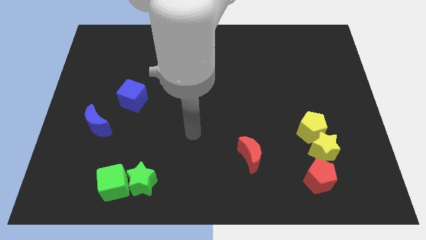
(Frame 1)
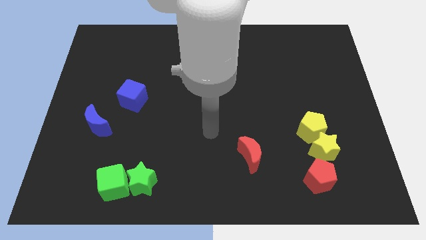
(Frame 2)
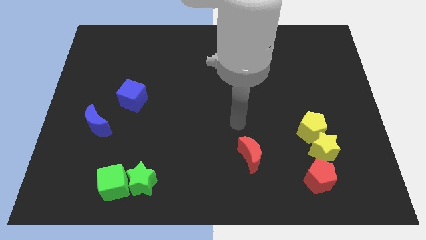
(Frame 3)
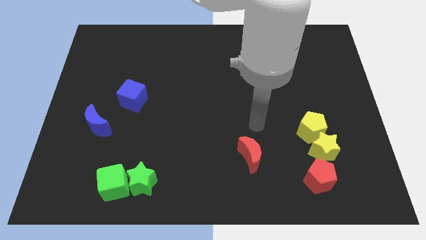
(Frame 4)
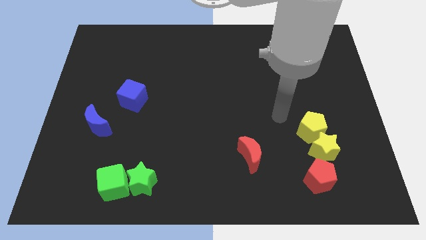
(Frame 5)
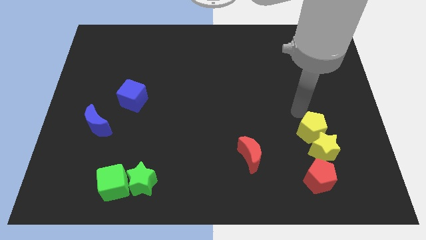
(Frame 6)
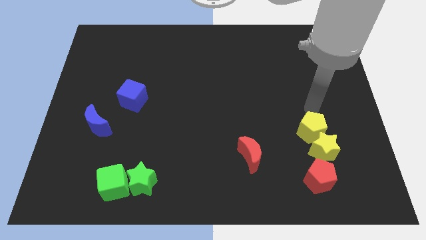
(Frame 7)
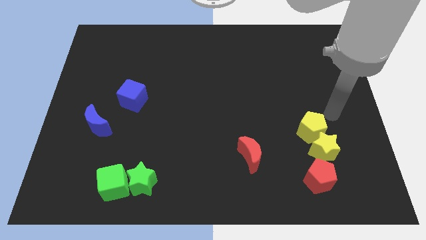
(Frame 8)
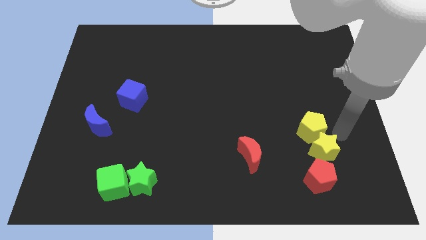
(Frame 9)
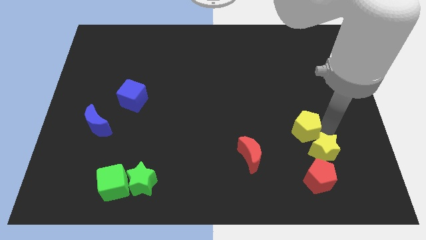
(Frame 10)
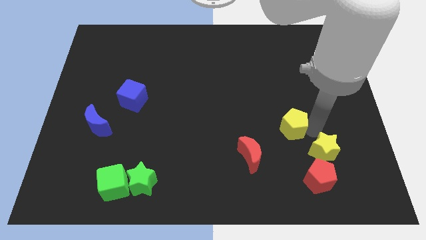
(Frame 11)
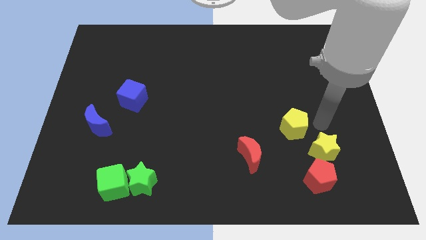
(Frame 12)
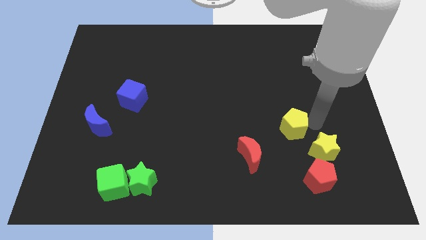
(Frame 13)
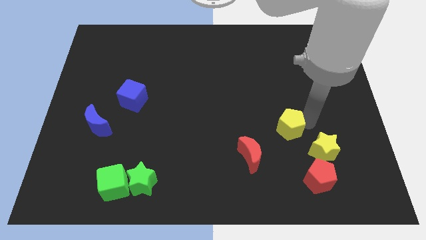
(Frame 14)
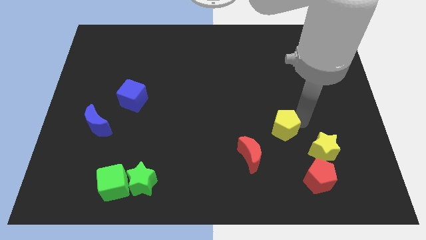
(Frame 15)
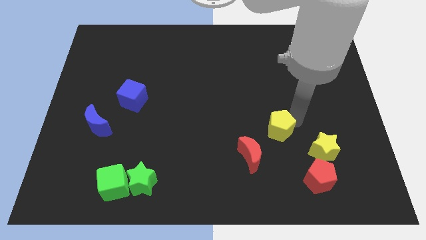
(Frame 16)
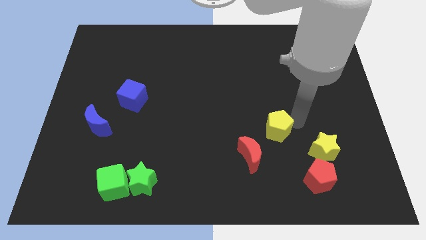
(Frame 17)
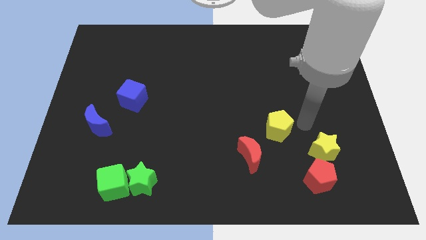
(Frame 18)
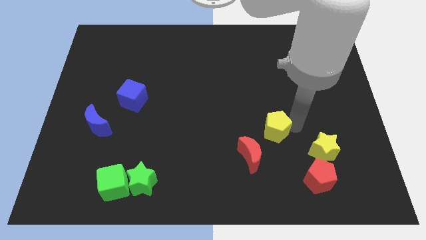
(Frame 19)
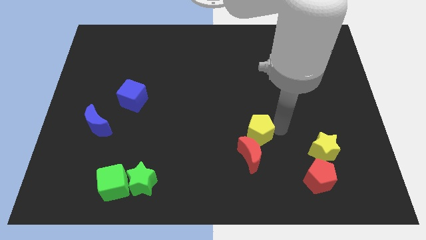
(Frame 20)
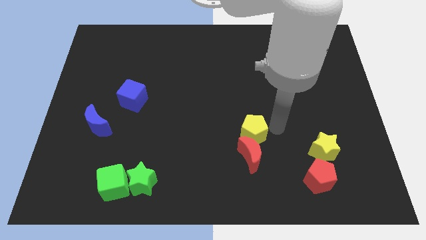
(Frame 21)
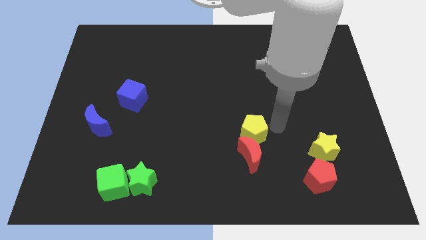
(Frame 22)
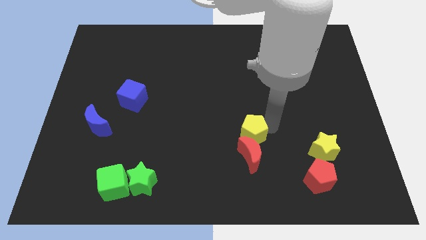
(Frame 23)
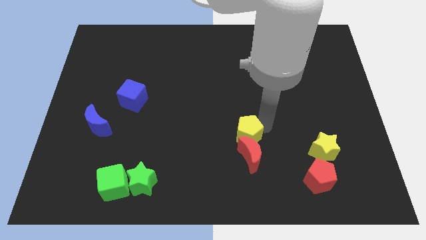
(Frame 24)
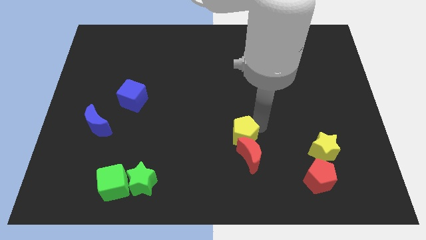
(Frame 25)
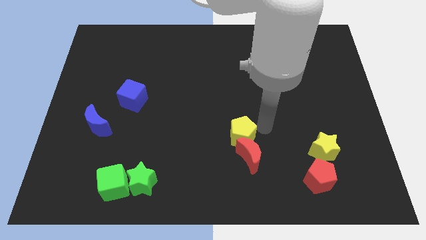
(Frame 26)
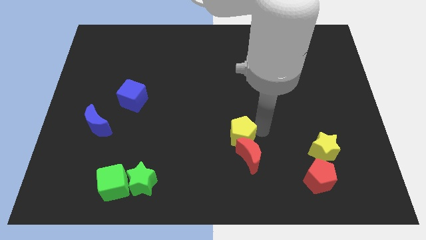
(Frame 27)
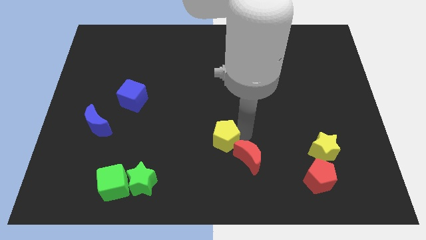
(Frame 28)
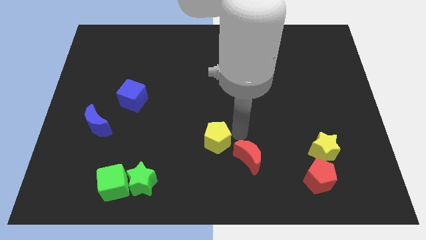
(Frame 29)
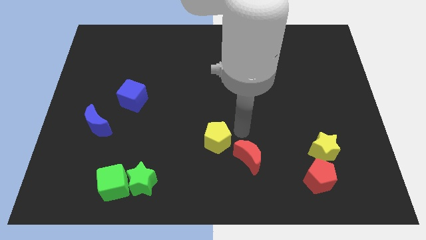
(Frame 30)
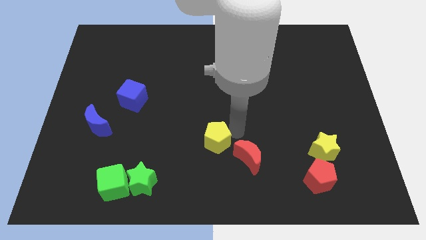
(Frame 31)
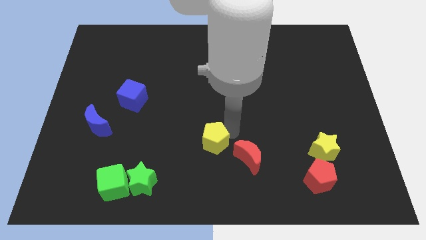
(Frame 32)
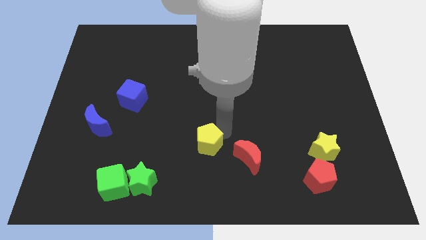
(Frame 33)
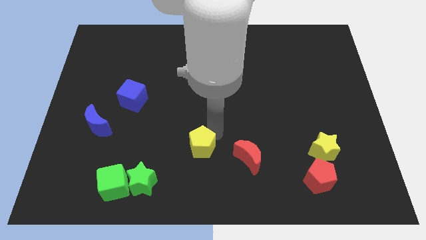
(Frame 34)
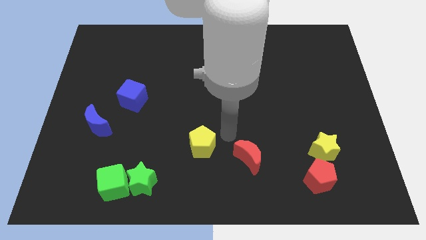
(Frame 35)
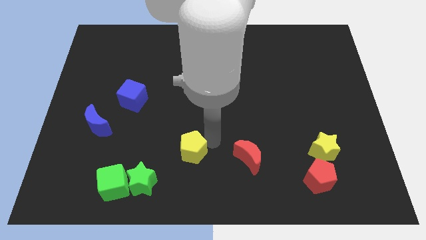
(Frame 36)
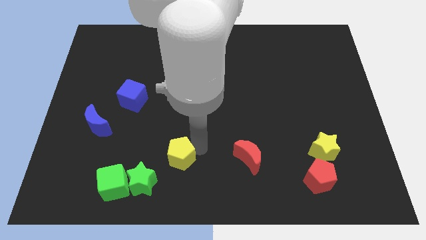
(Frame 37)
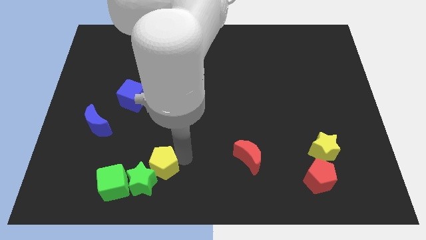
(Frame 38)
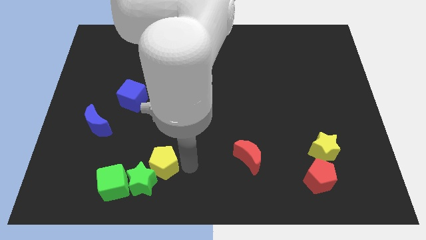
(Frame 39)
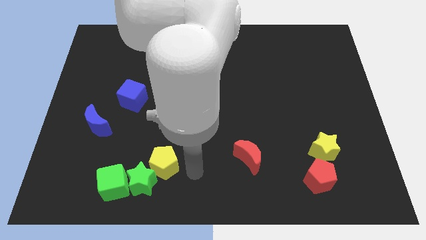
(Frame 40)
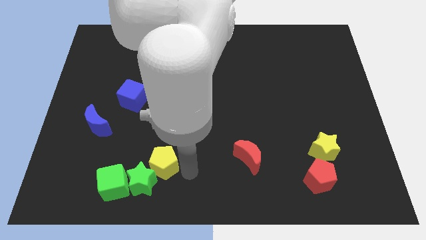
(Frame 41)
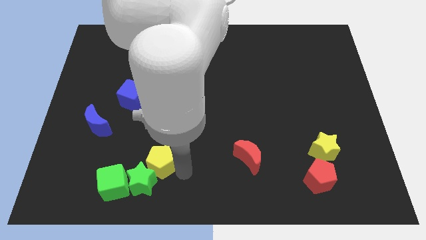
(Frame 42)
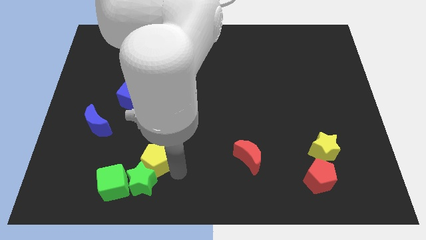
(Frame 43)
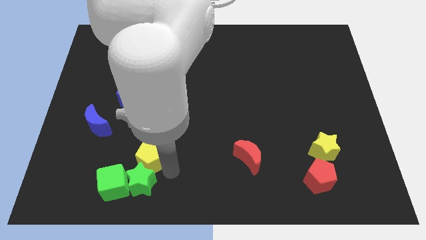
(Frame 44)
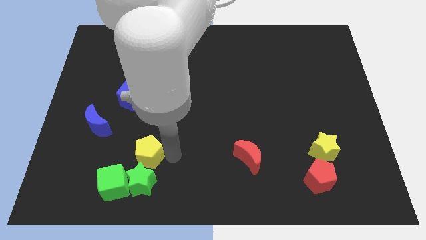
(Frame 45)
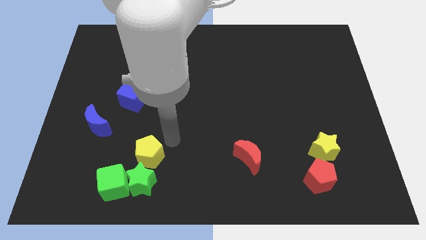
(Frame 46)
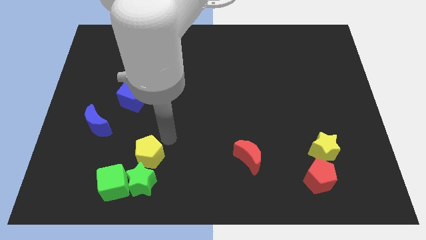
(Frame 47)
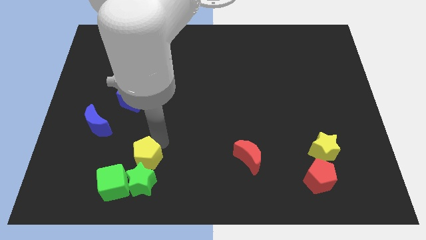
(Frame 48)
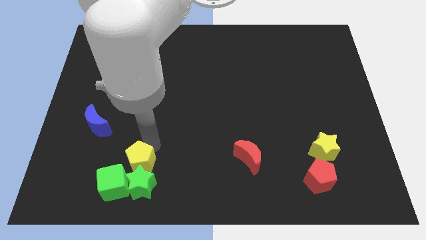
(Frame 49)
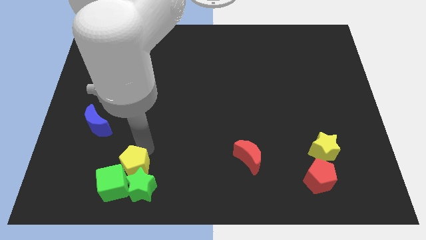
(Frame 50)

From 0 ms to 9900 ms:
put the yellow pentagon next to the green cube

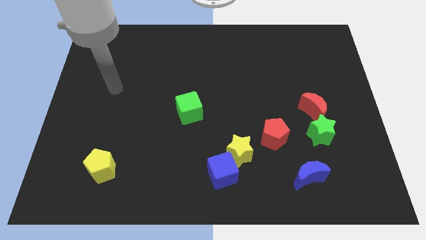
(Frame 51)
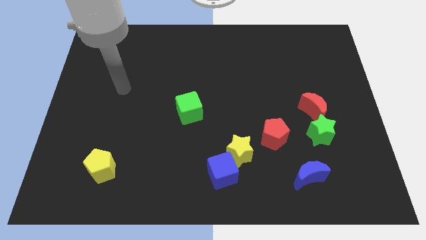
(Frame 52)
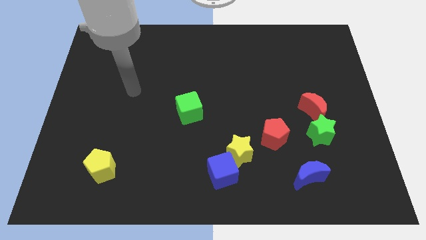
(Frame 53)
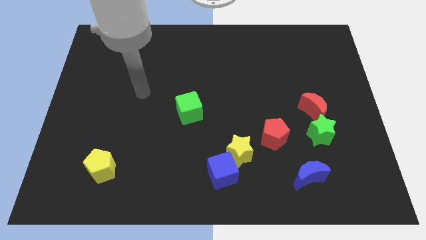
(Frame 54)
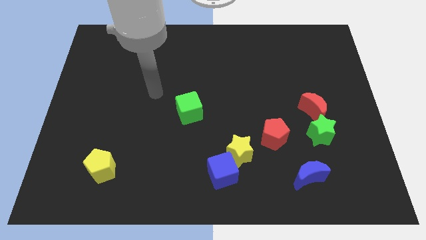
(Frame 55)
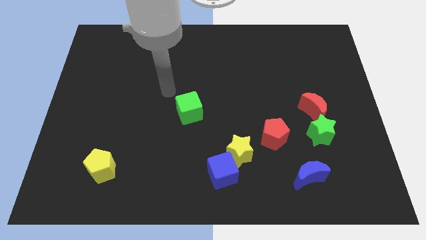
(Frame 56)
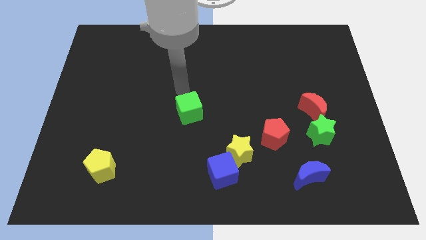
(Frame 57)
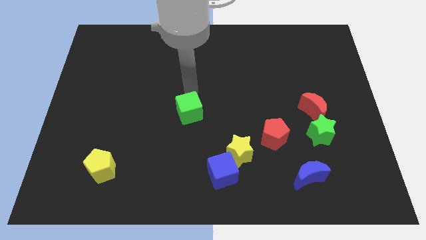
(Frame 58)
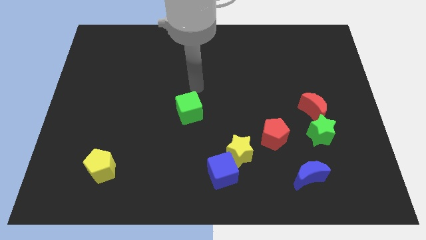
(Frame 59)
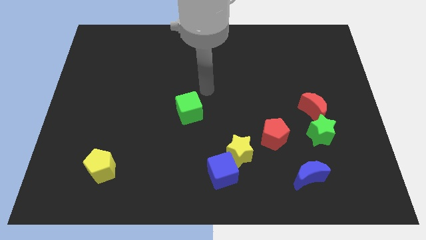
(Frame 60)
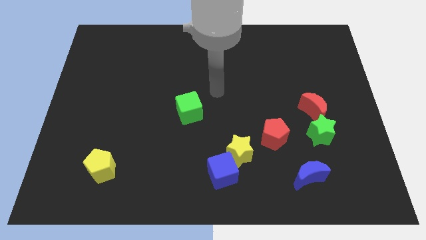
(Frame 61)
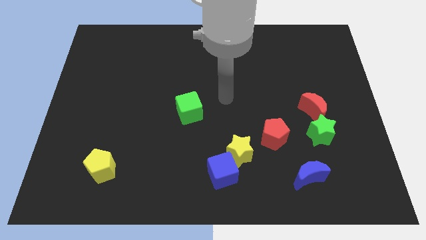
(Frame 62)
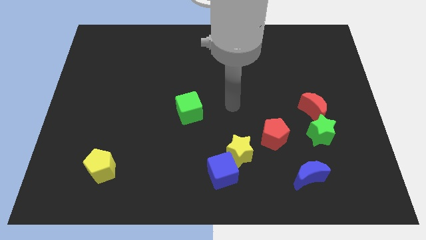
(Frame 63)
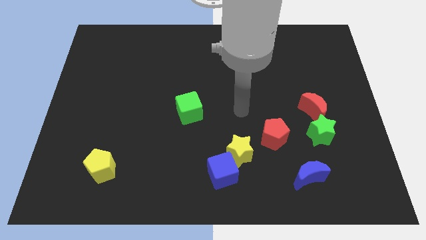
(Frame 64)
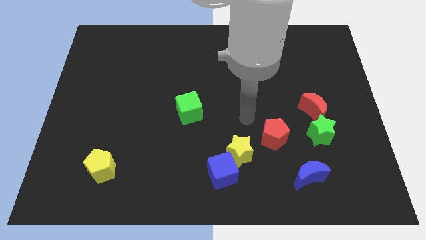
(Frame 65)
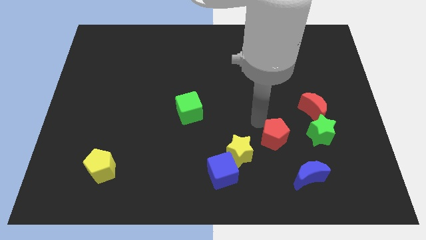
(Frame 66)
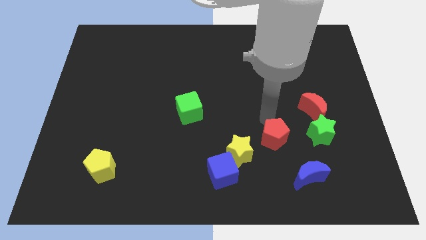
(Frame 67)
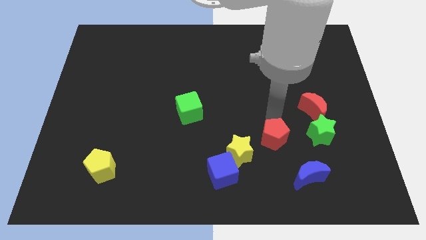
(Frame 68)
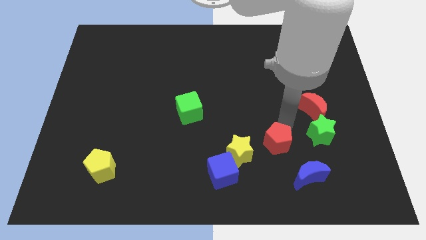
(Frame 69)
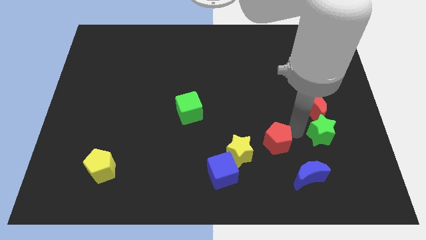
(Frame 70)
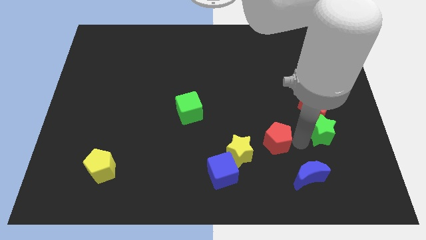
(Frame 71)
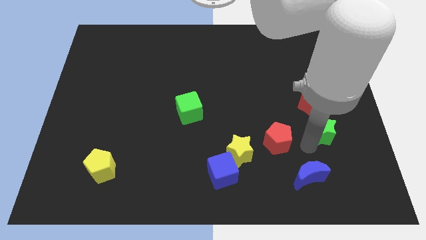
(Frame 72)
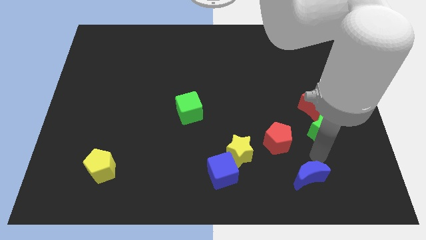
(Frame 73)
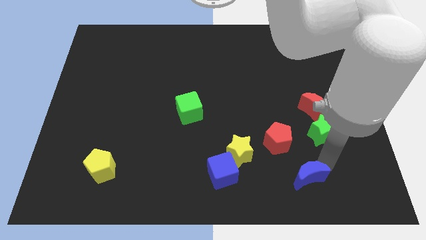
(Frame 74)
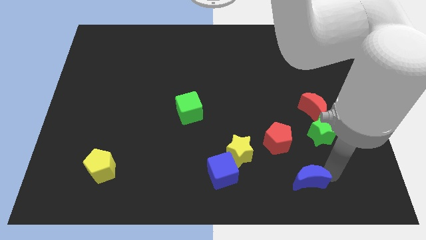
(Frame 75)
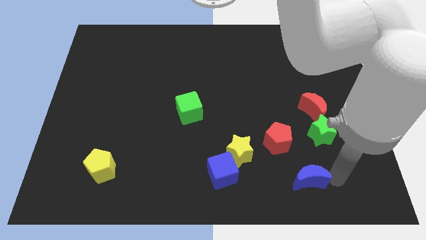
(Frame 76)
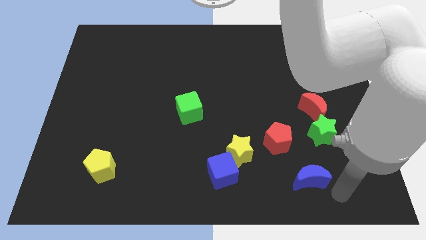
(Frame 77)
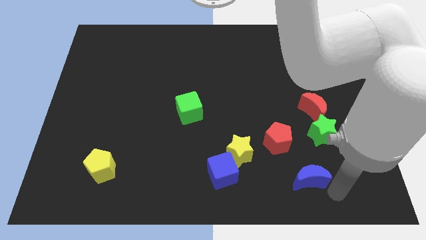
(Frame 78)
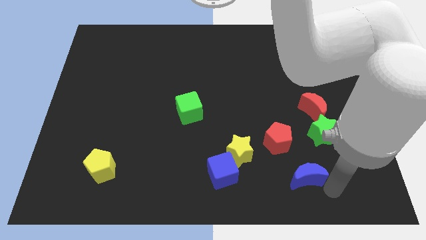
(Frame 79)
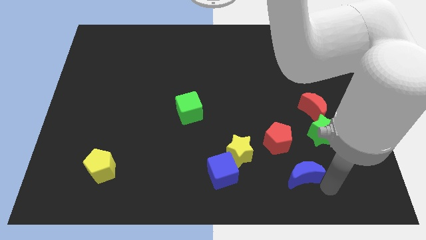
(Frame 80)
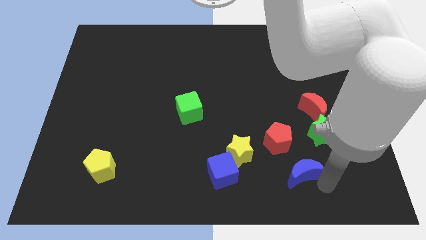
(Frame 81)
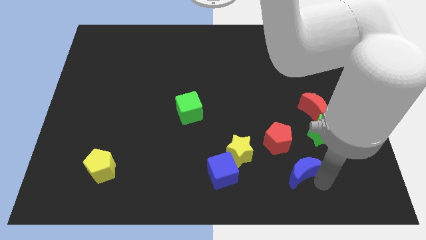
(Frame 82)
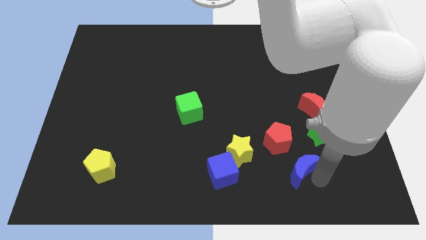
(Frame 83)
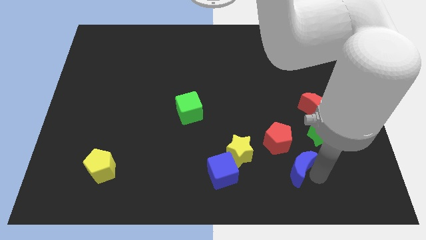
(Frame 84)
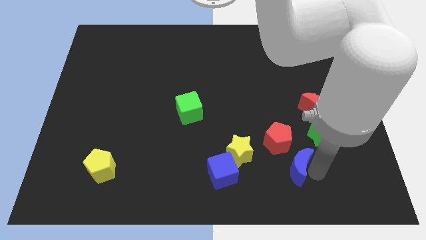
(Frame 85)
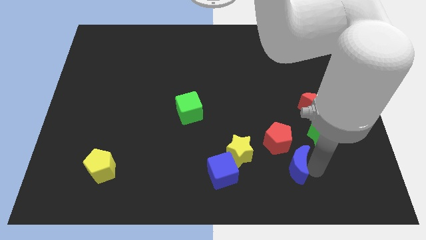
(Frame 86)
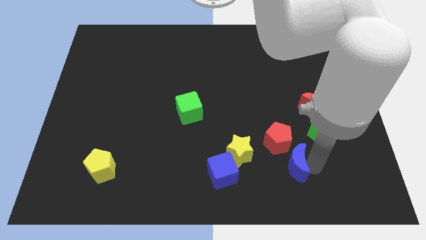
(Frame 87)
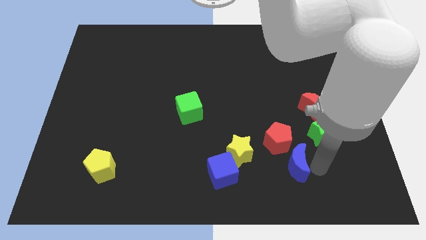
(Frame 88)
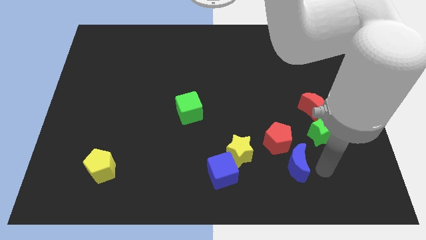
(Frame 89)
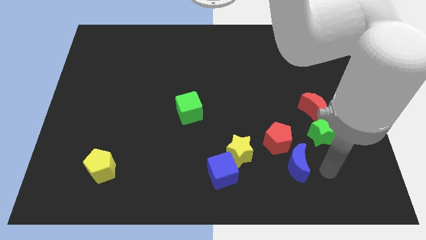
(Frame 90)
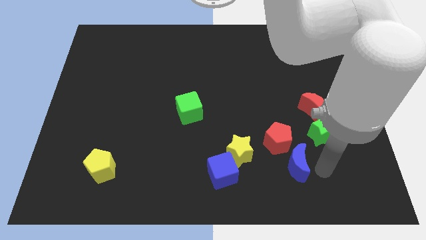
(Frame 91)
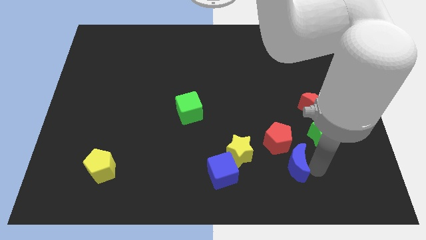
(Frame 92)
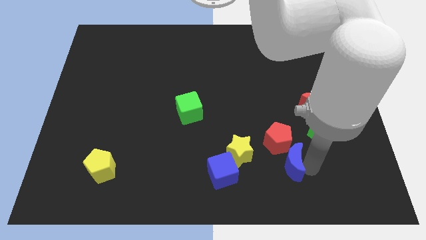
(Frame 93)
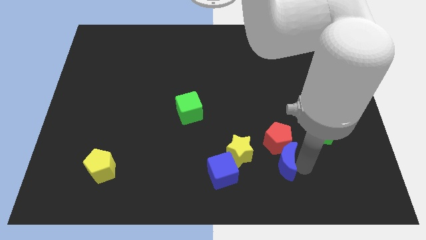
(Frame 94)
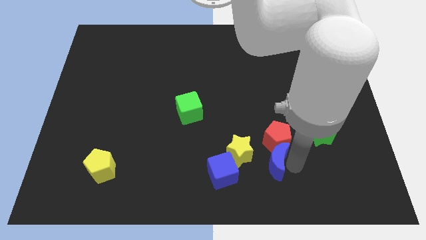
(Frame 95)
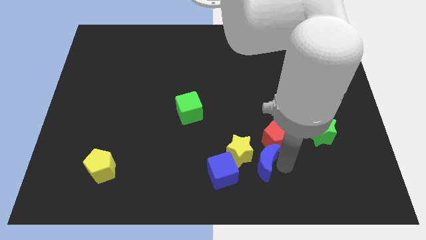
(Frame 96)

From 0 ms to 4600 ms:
slide the blue moon close to the yellow star
